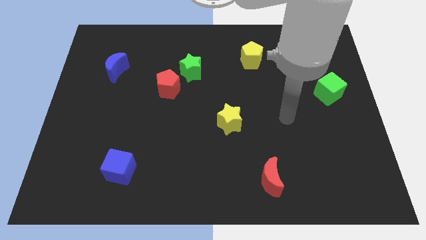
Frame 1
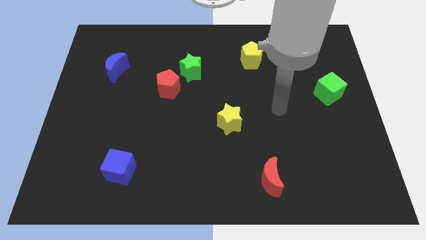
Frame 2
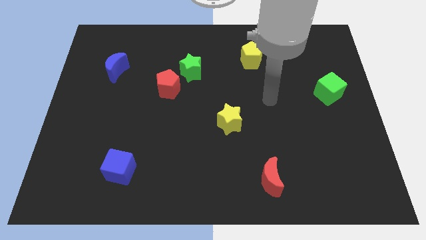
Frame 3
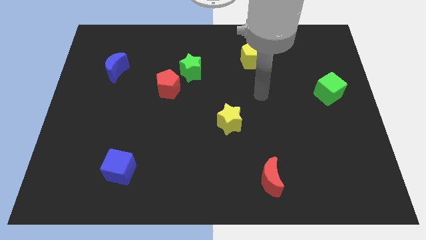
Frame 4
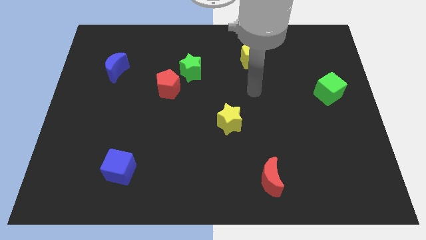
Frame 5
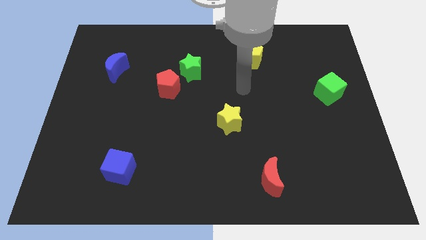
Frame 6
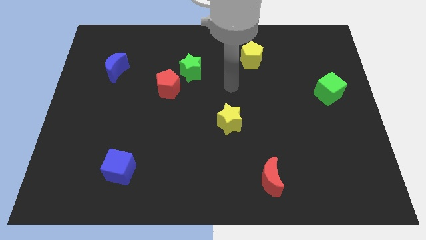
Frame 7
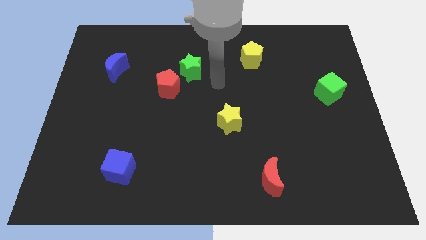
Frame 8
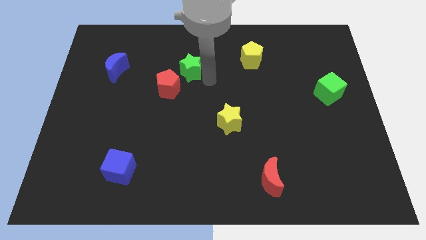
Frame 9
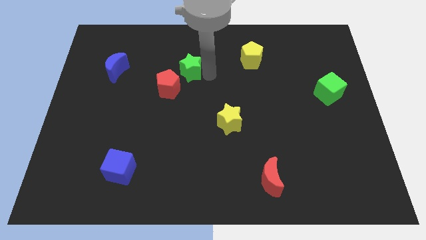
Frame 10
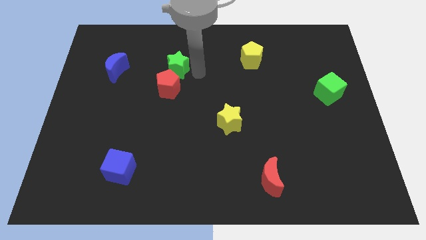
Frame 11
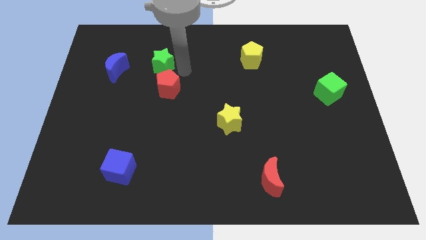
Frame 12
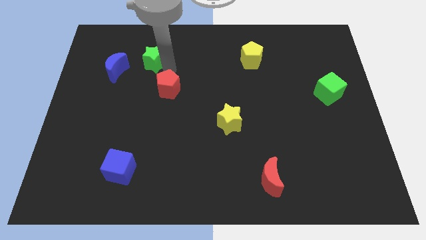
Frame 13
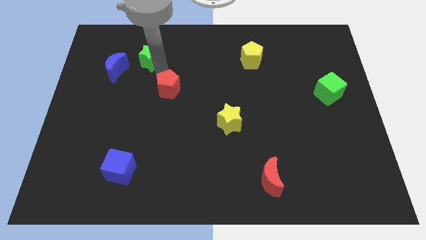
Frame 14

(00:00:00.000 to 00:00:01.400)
move the red pentagon away from the green star

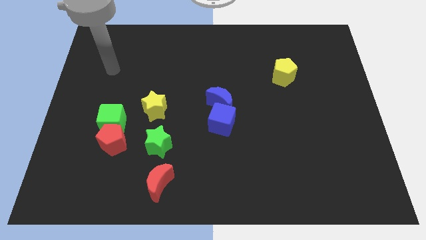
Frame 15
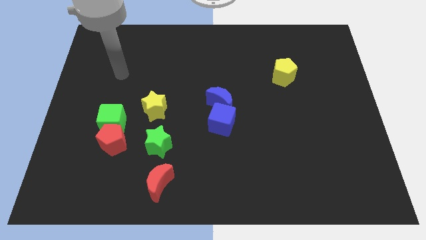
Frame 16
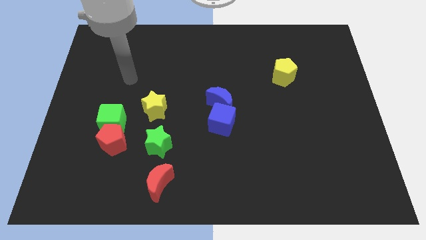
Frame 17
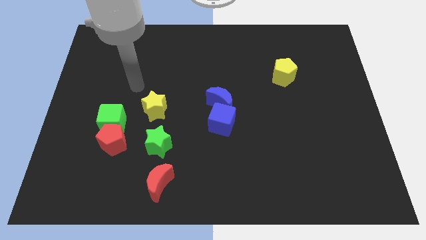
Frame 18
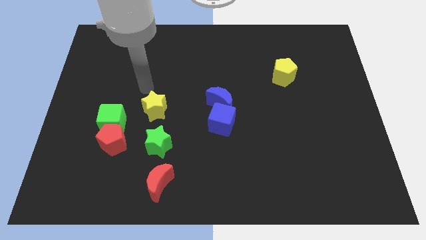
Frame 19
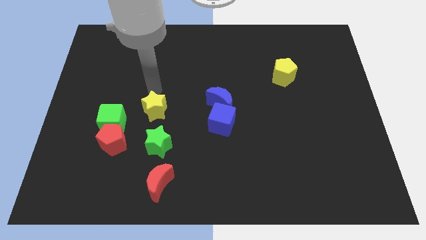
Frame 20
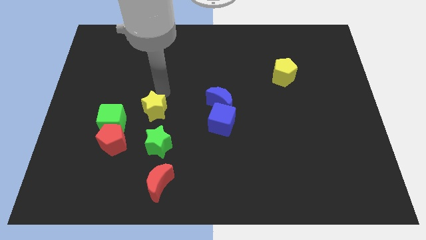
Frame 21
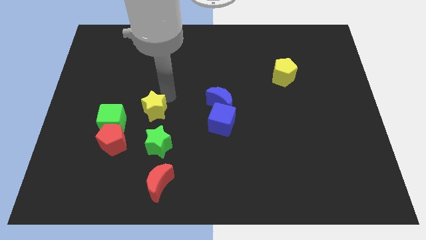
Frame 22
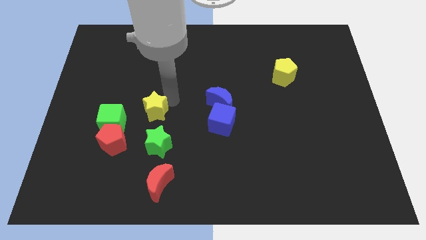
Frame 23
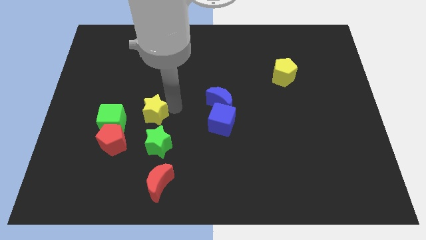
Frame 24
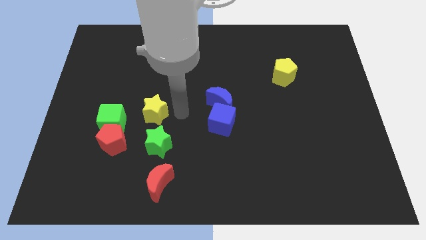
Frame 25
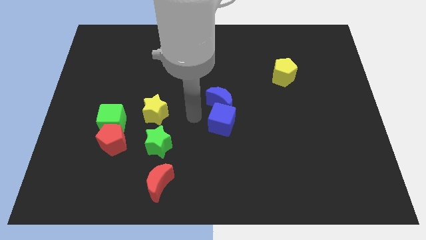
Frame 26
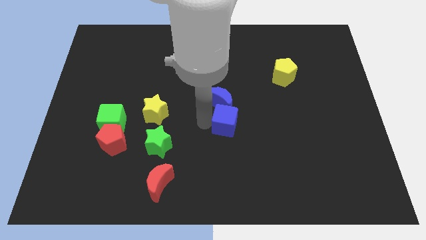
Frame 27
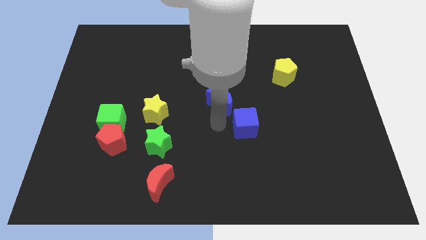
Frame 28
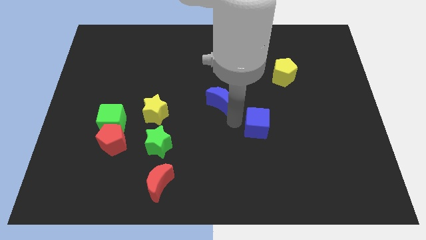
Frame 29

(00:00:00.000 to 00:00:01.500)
separate the blue moon from the blue cube

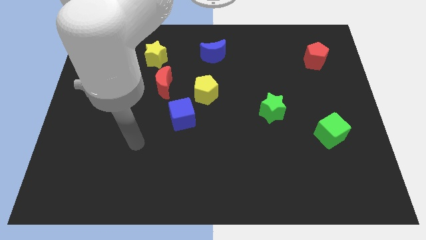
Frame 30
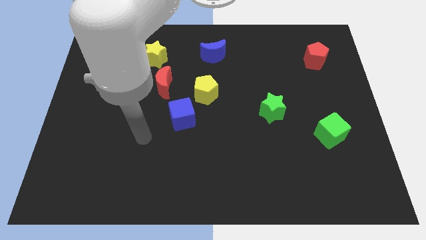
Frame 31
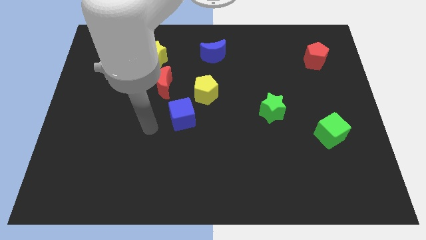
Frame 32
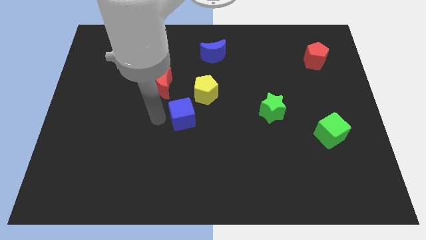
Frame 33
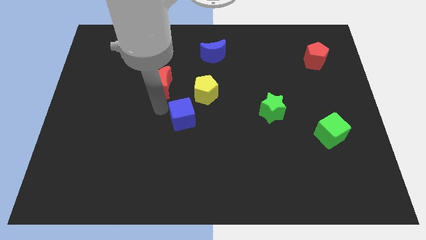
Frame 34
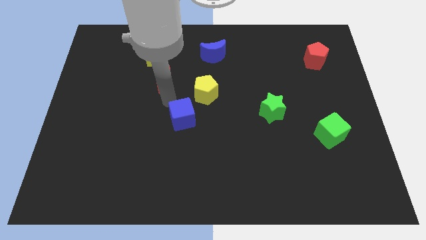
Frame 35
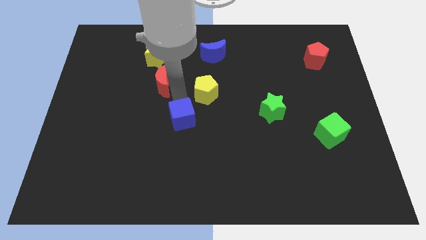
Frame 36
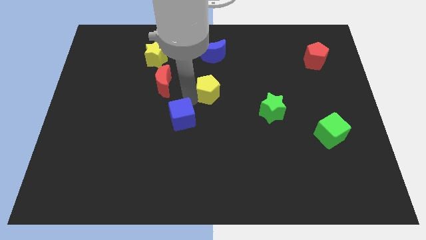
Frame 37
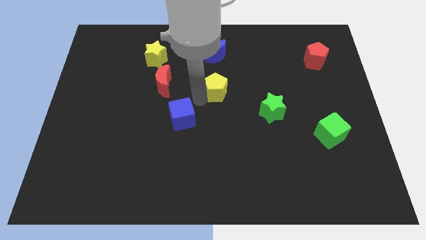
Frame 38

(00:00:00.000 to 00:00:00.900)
separate the blue cube from the yellow pentagon

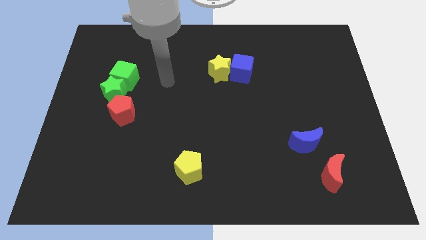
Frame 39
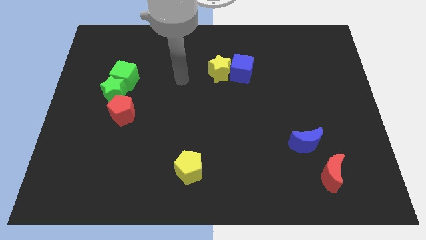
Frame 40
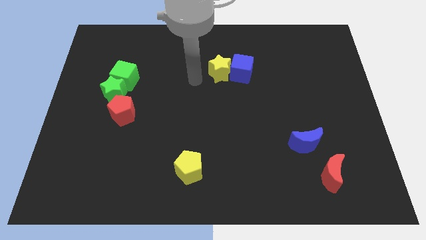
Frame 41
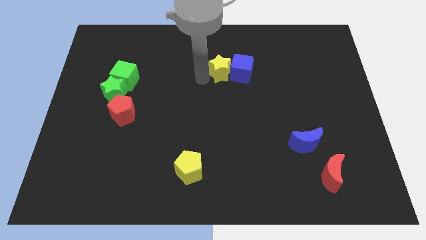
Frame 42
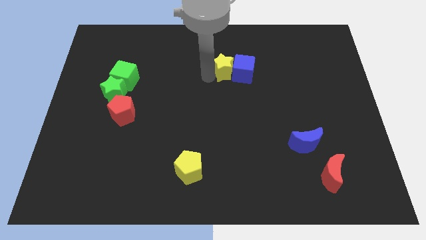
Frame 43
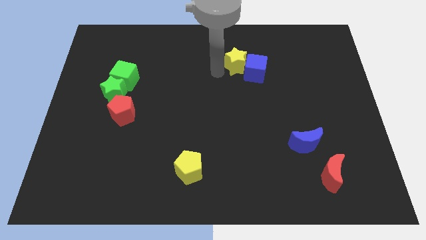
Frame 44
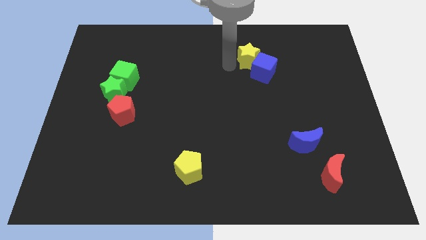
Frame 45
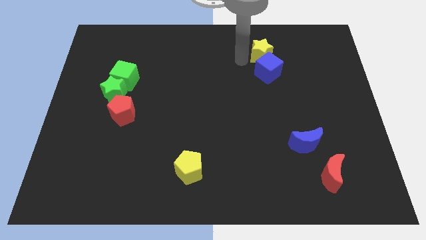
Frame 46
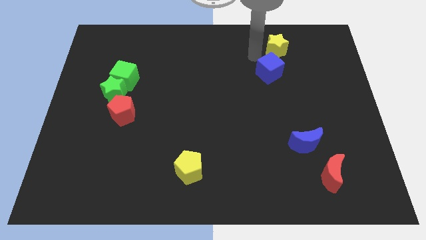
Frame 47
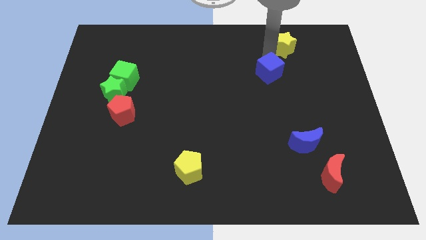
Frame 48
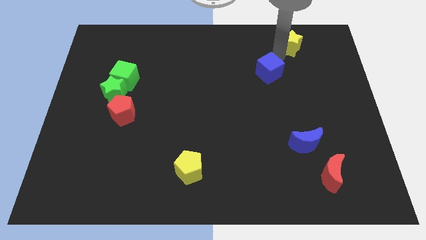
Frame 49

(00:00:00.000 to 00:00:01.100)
pull the blue cube apart from the yellow star

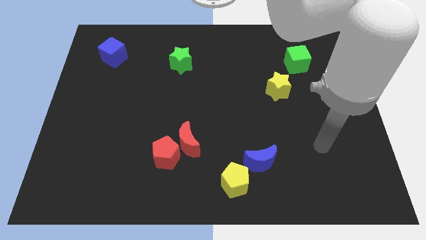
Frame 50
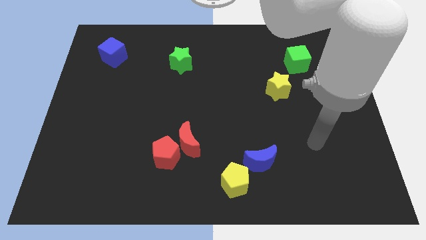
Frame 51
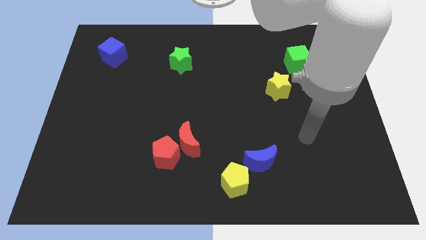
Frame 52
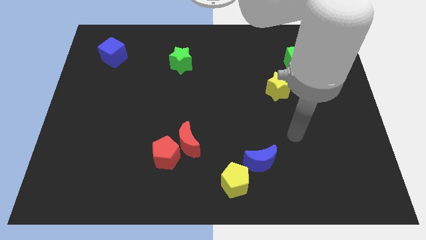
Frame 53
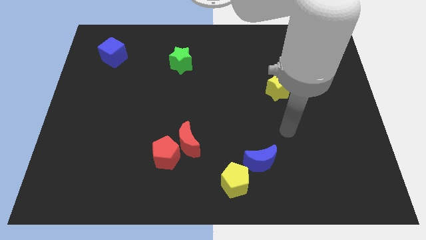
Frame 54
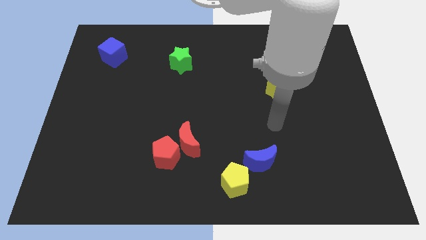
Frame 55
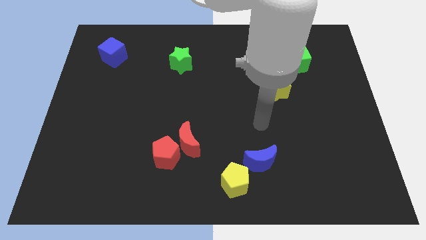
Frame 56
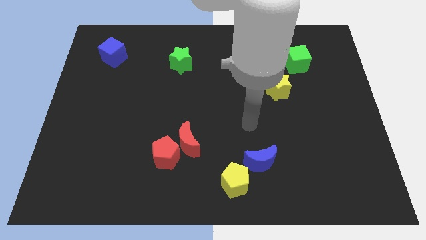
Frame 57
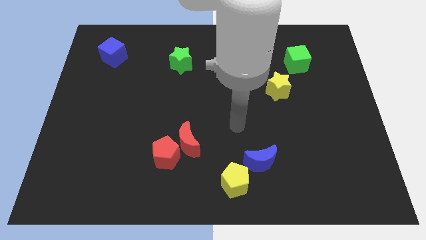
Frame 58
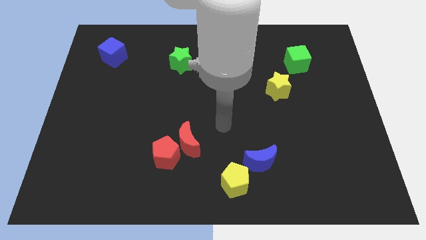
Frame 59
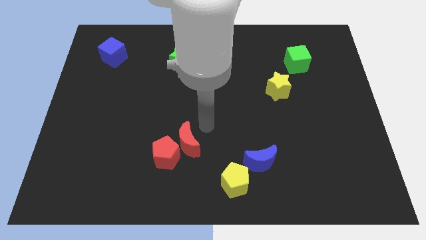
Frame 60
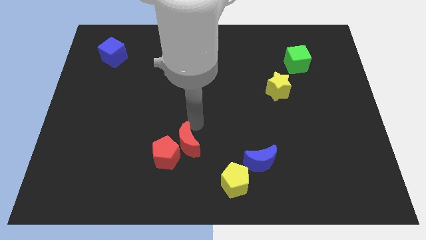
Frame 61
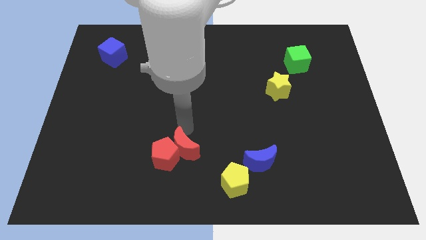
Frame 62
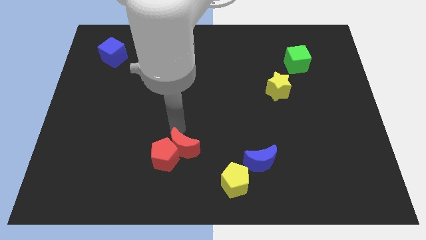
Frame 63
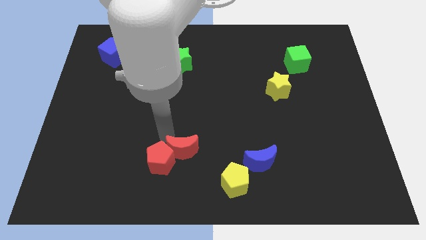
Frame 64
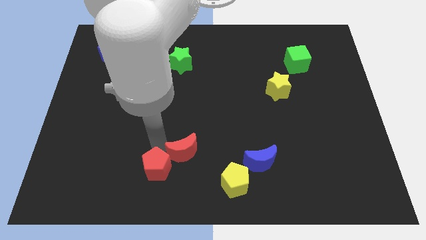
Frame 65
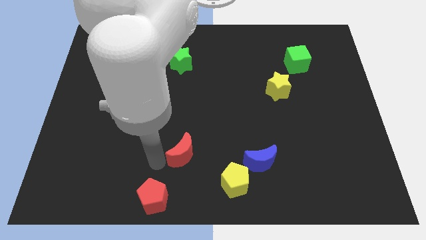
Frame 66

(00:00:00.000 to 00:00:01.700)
pull the red moon apart from the red pentagon

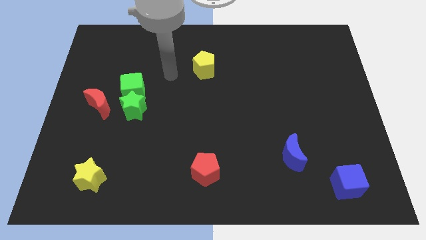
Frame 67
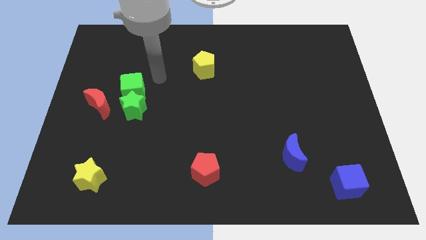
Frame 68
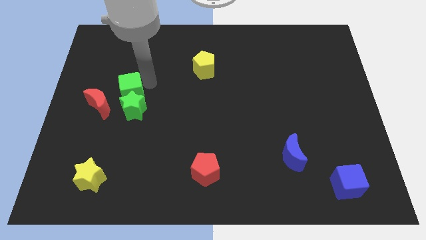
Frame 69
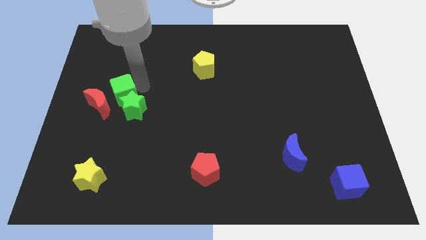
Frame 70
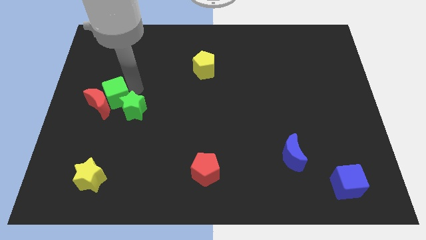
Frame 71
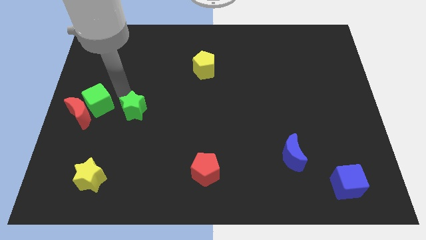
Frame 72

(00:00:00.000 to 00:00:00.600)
separate the green star from the green cube and red moon

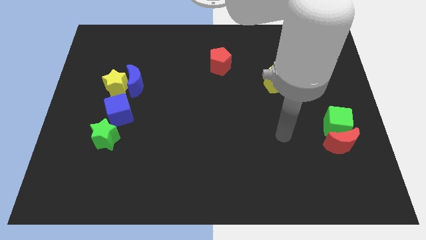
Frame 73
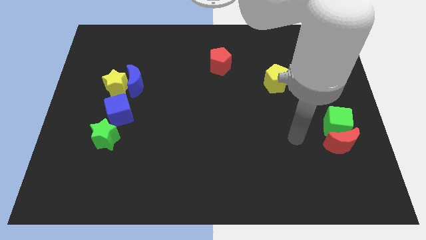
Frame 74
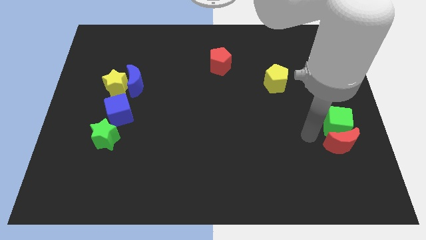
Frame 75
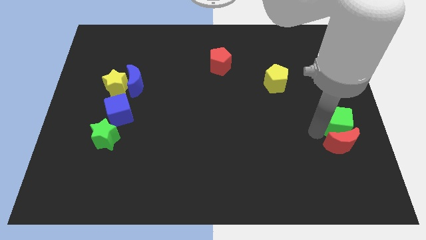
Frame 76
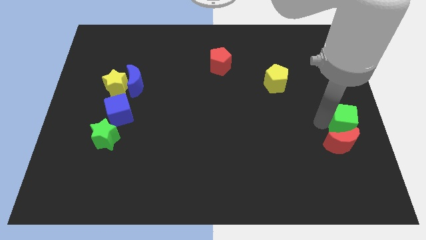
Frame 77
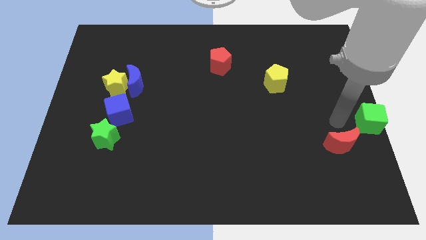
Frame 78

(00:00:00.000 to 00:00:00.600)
pull the red moon apart from the green cube

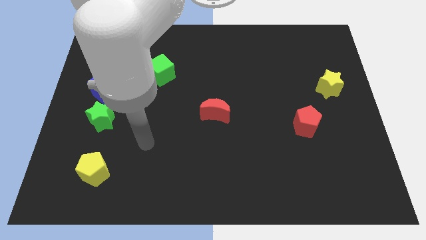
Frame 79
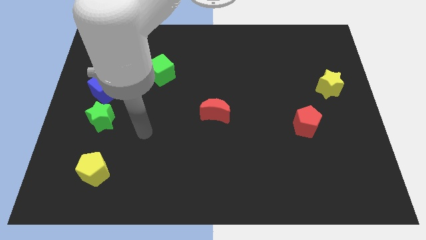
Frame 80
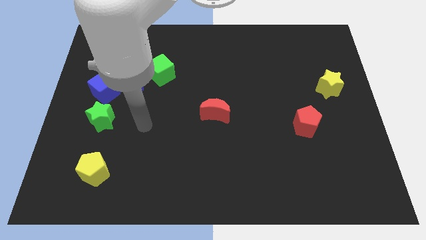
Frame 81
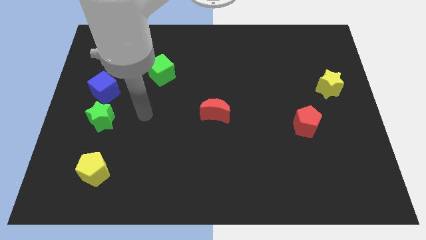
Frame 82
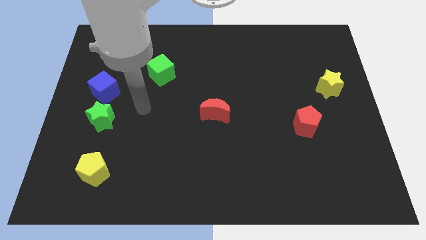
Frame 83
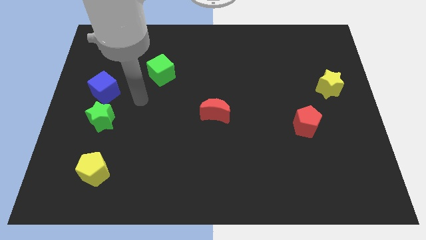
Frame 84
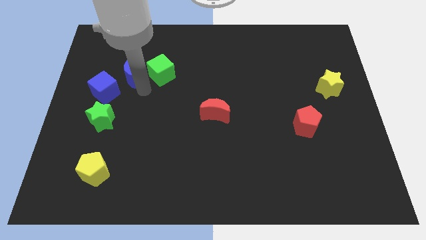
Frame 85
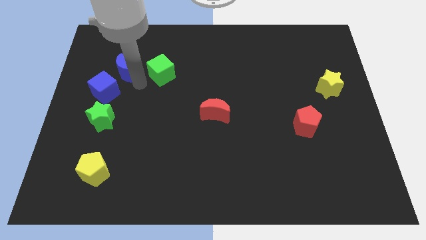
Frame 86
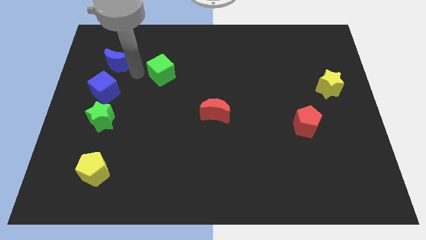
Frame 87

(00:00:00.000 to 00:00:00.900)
pull the green cube apart from the blue moon

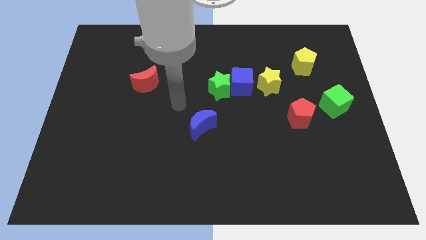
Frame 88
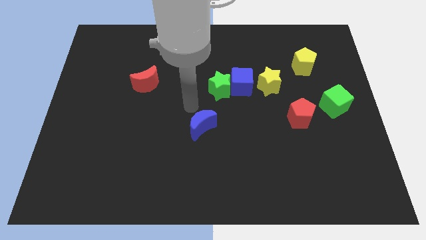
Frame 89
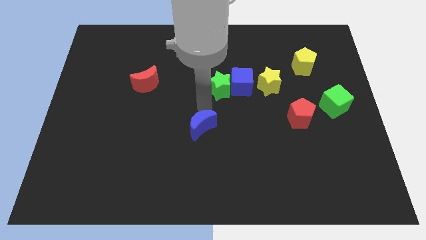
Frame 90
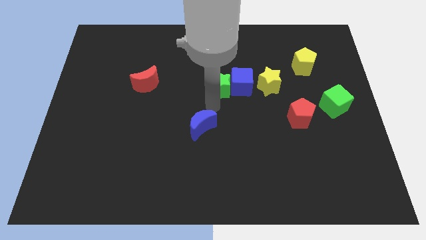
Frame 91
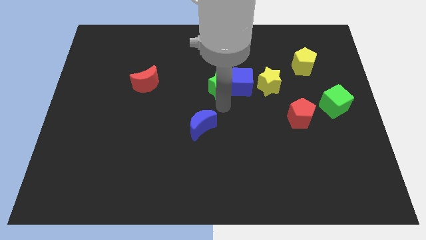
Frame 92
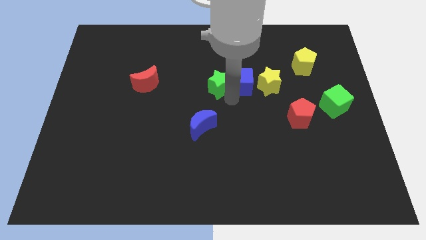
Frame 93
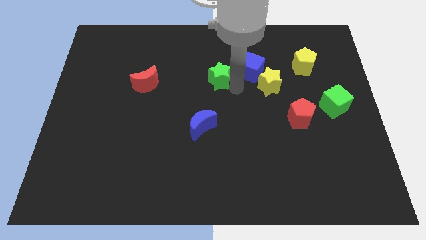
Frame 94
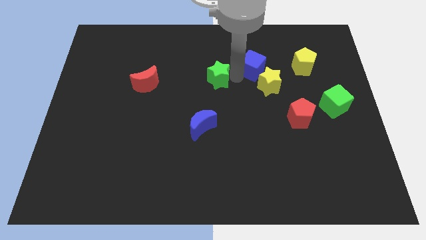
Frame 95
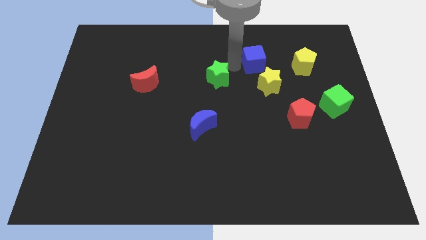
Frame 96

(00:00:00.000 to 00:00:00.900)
move the green star away from the blue cube
